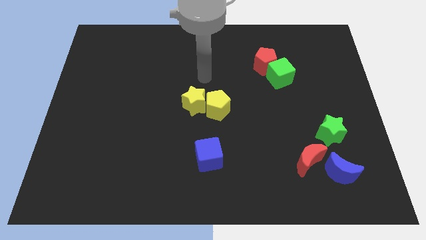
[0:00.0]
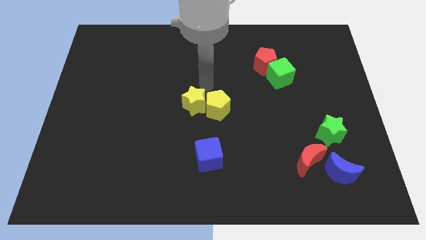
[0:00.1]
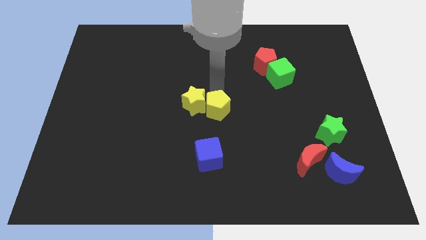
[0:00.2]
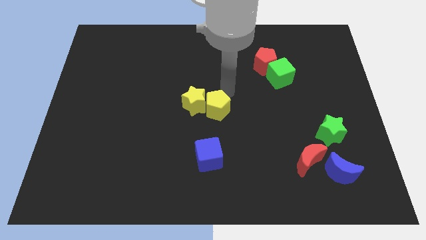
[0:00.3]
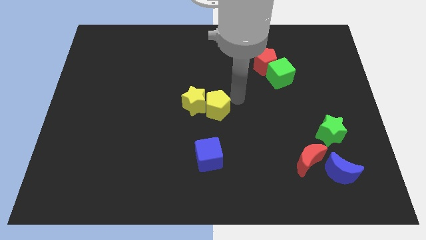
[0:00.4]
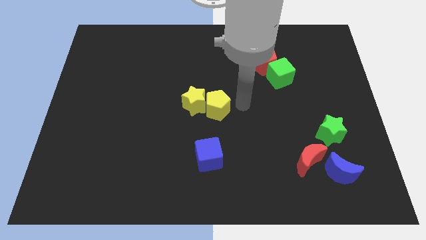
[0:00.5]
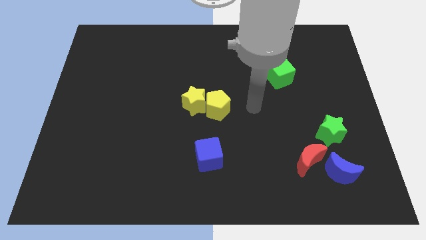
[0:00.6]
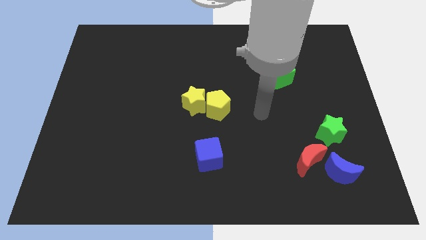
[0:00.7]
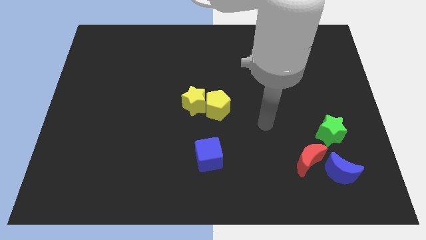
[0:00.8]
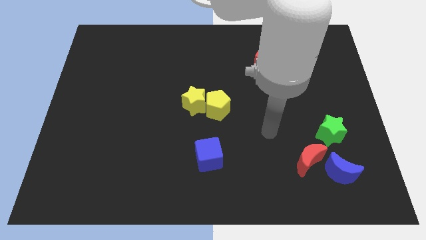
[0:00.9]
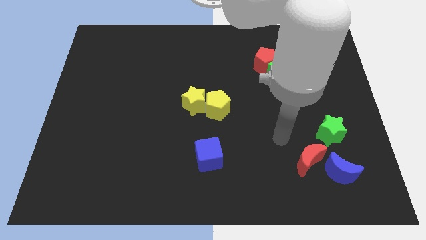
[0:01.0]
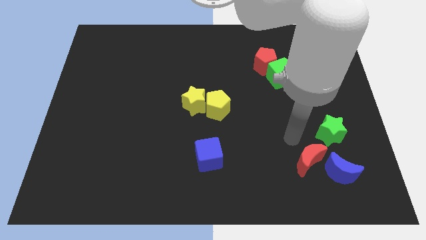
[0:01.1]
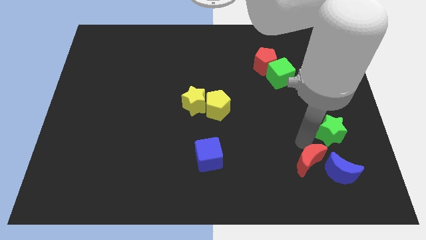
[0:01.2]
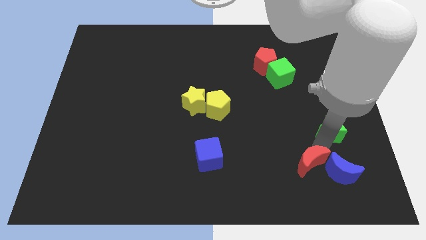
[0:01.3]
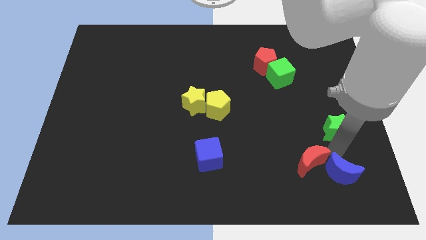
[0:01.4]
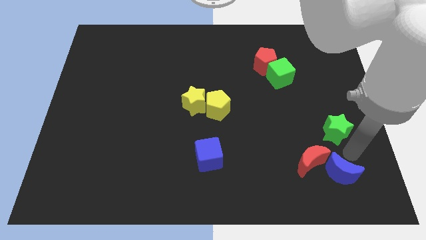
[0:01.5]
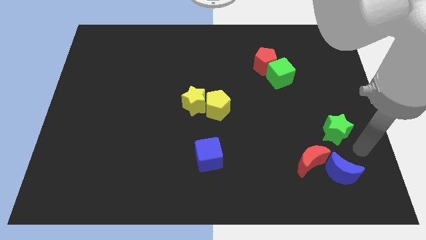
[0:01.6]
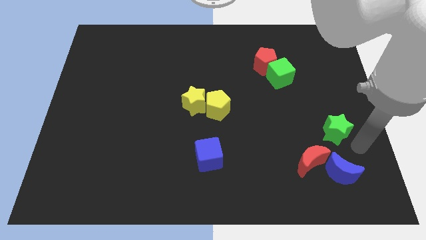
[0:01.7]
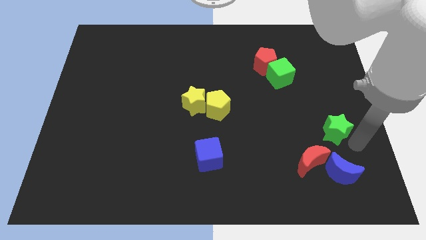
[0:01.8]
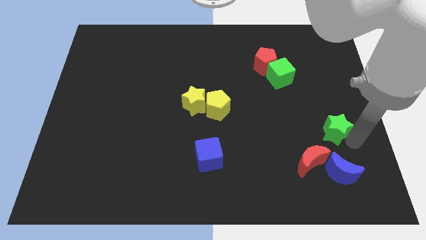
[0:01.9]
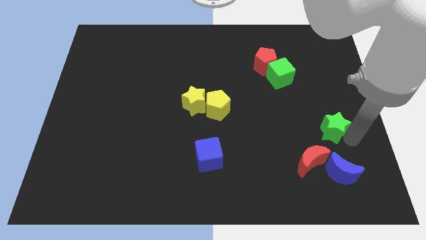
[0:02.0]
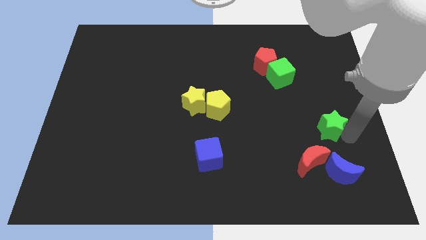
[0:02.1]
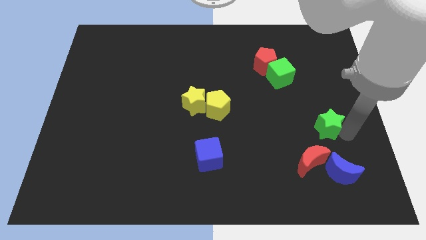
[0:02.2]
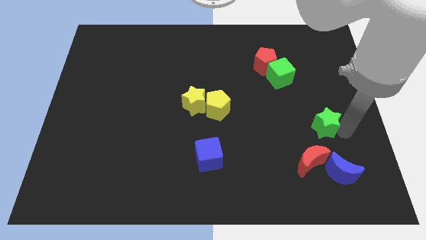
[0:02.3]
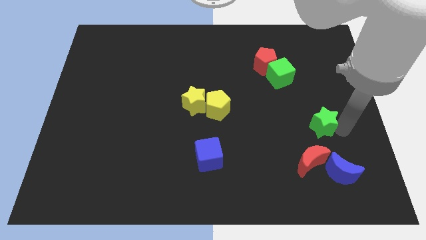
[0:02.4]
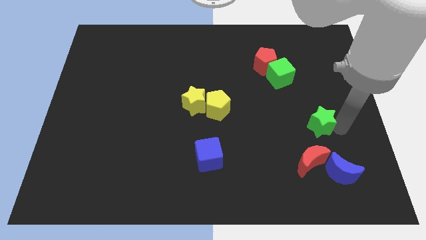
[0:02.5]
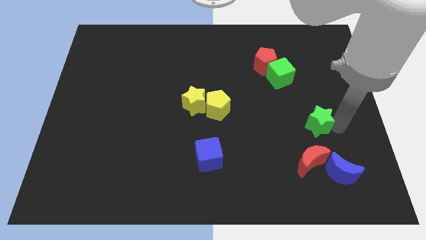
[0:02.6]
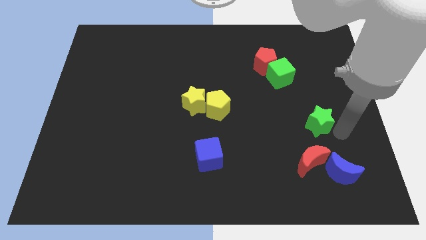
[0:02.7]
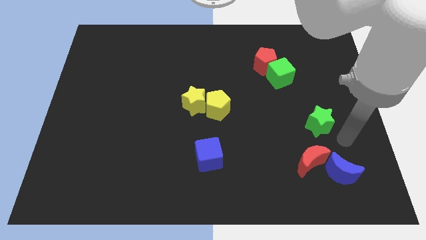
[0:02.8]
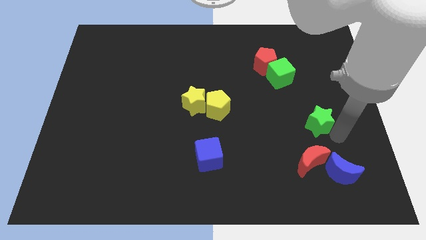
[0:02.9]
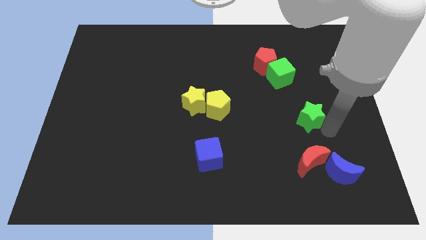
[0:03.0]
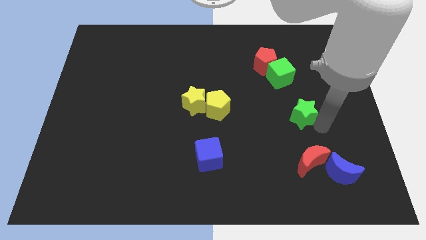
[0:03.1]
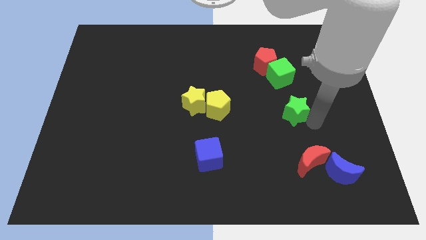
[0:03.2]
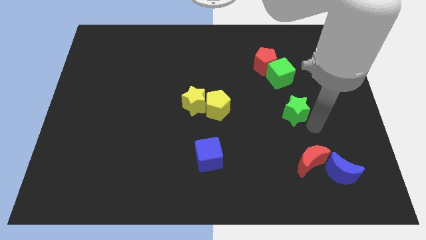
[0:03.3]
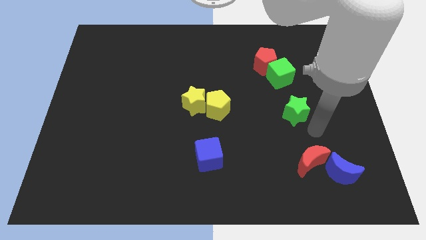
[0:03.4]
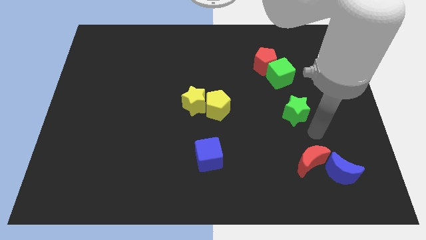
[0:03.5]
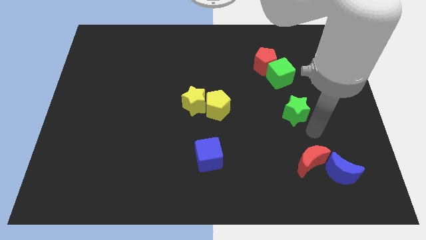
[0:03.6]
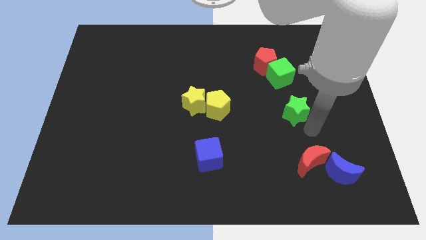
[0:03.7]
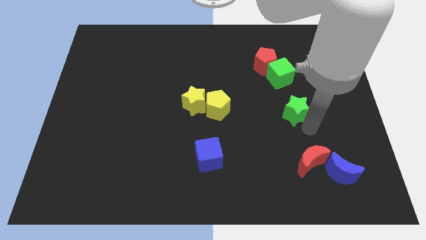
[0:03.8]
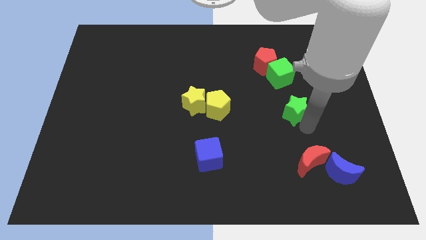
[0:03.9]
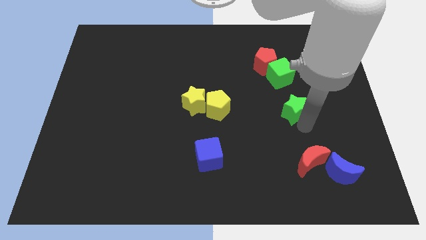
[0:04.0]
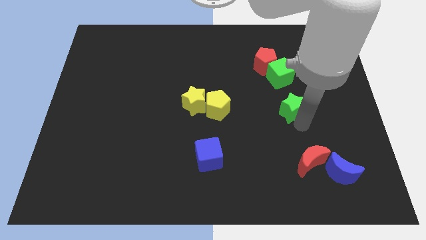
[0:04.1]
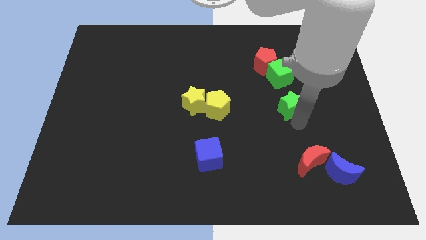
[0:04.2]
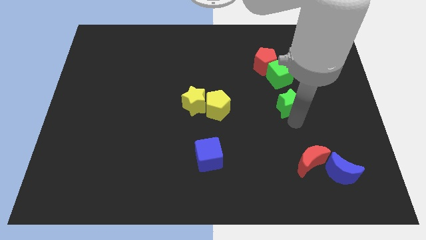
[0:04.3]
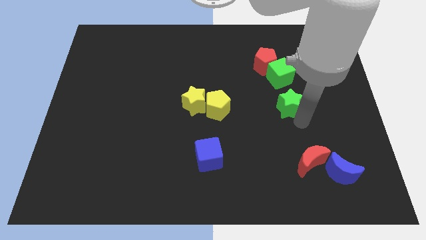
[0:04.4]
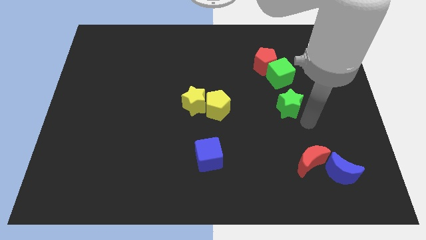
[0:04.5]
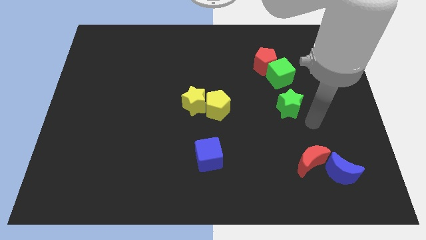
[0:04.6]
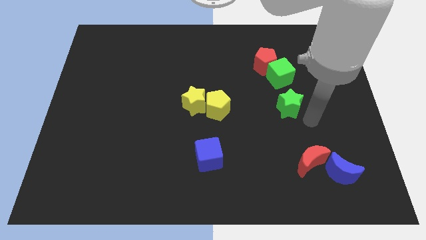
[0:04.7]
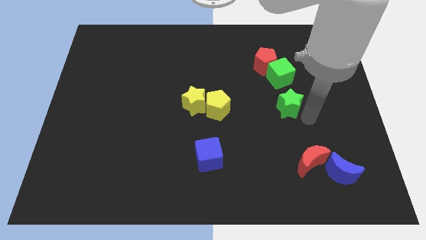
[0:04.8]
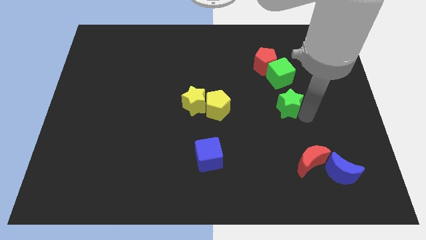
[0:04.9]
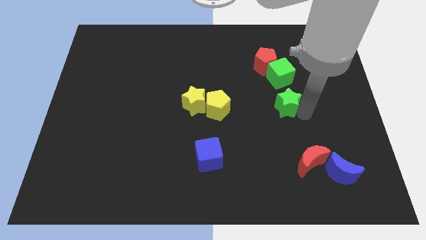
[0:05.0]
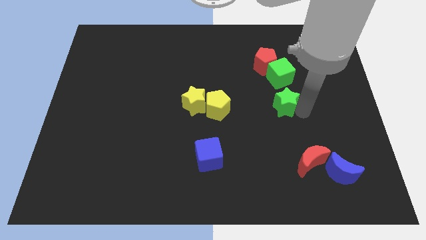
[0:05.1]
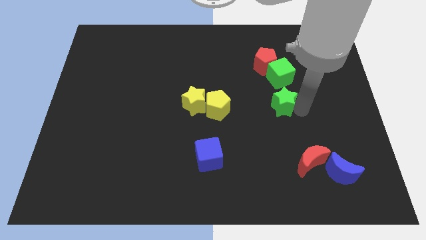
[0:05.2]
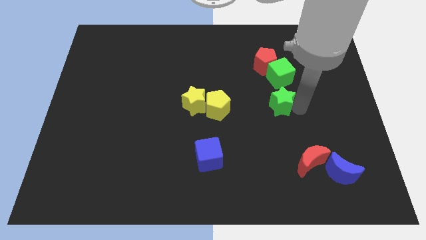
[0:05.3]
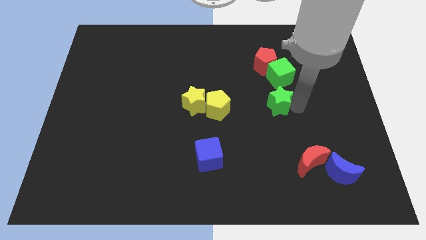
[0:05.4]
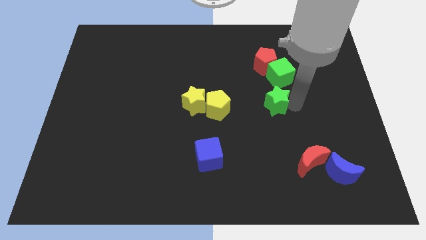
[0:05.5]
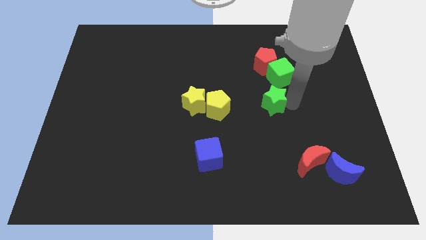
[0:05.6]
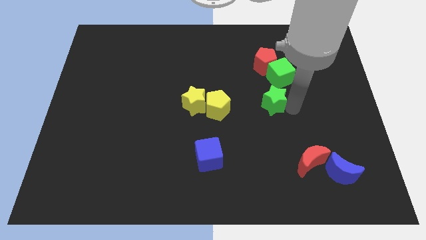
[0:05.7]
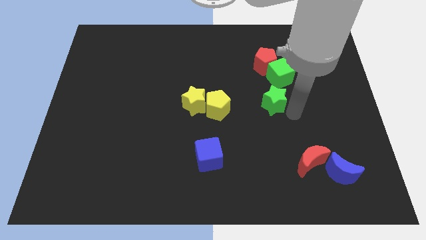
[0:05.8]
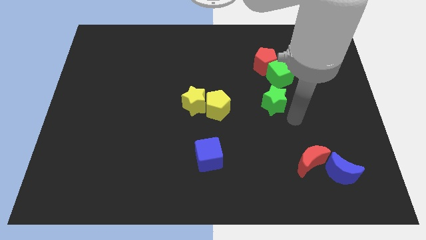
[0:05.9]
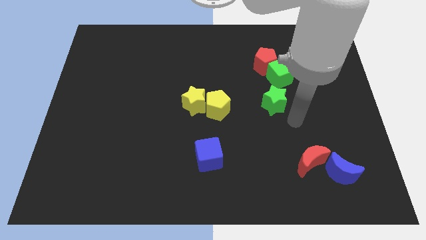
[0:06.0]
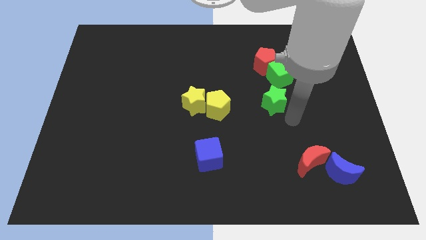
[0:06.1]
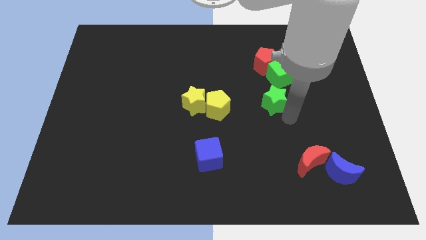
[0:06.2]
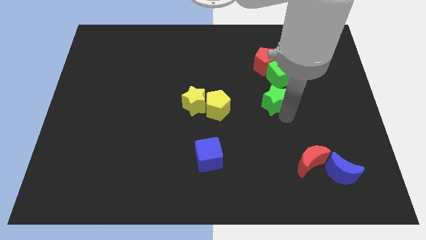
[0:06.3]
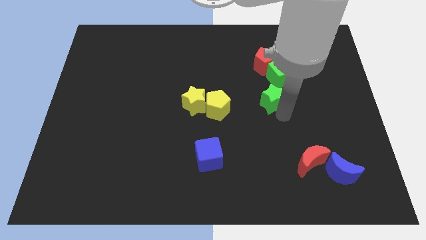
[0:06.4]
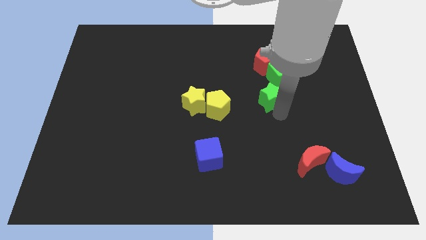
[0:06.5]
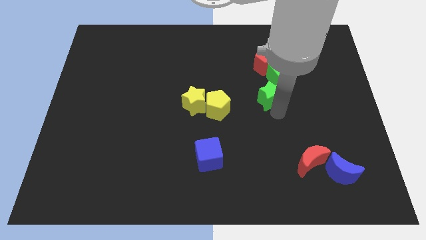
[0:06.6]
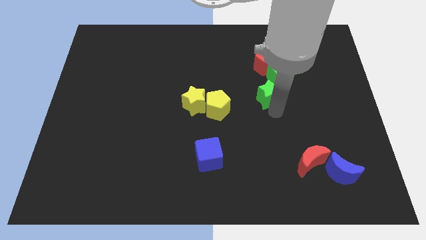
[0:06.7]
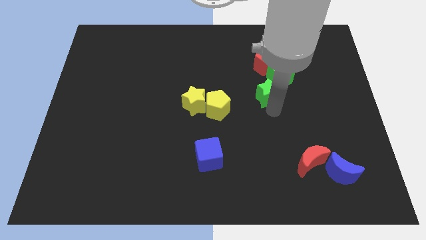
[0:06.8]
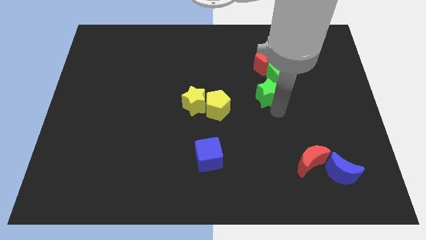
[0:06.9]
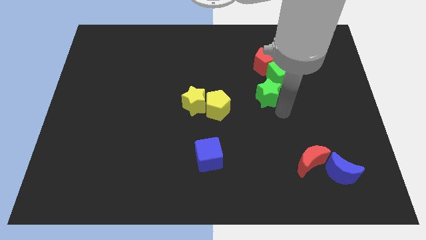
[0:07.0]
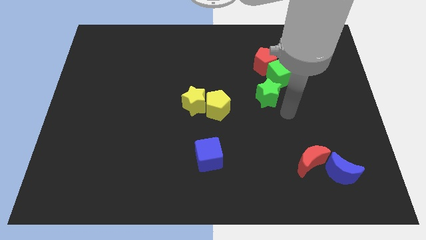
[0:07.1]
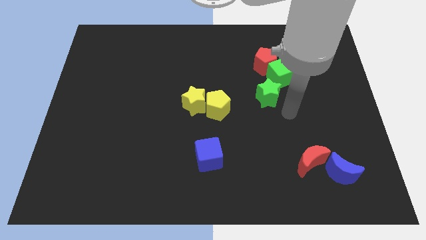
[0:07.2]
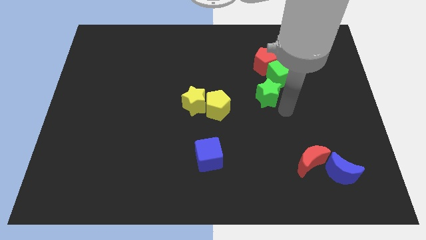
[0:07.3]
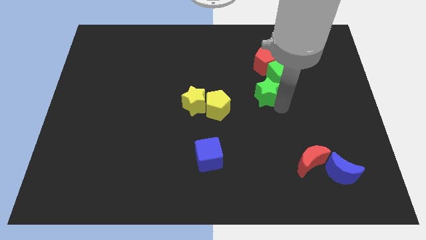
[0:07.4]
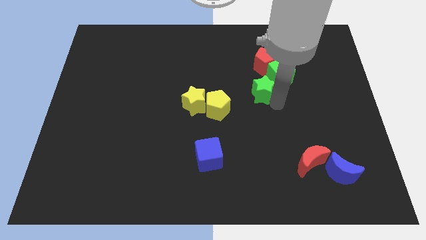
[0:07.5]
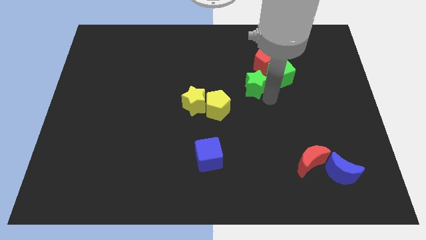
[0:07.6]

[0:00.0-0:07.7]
push the green star upwards and then left

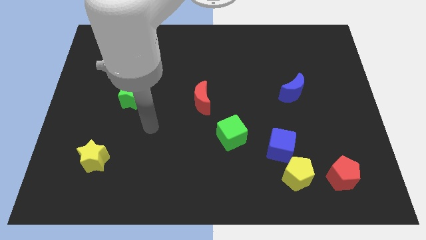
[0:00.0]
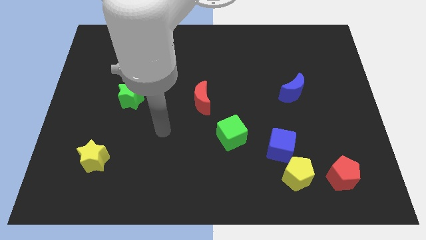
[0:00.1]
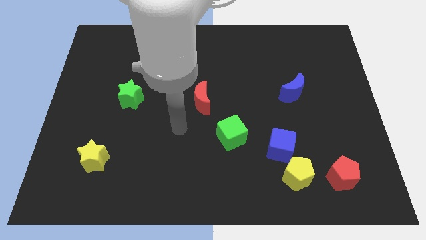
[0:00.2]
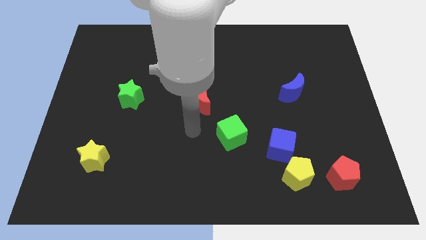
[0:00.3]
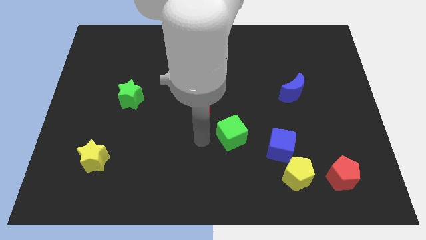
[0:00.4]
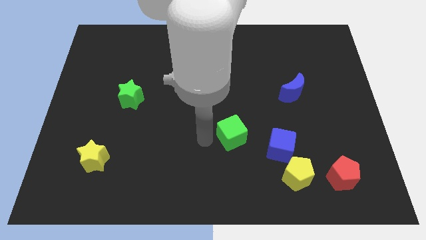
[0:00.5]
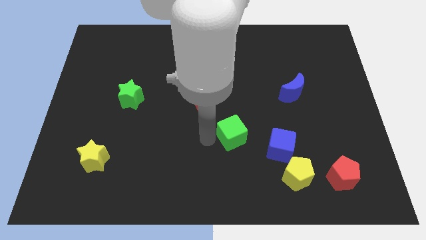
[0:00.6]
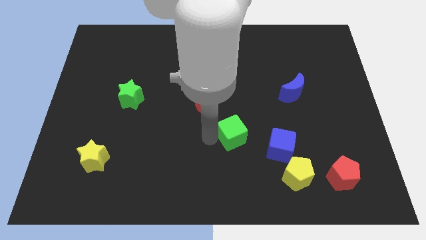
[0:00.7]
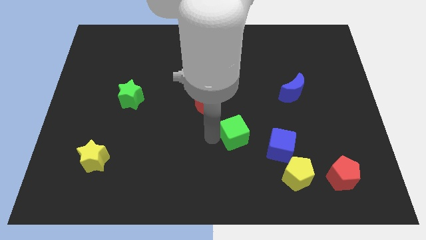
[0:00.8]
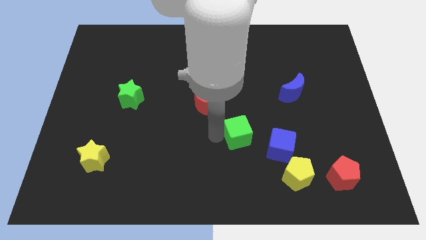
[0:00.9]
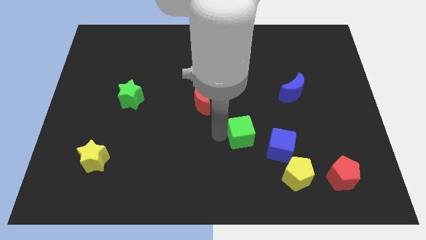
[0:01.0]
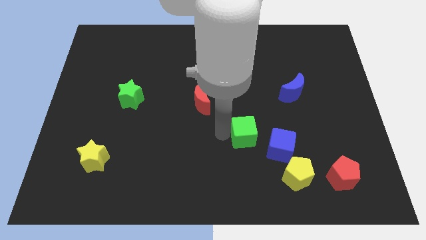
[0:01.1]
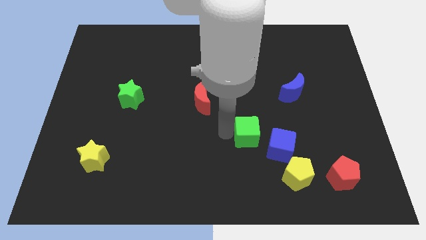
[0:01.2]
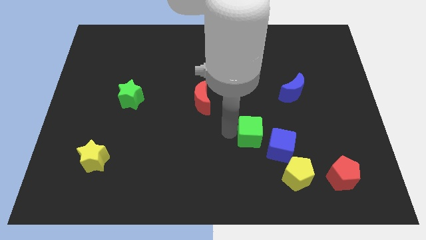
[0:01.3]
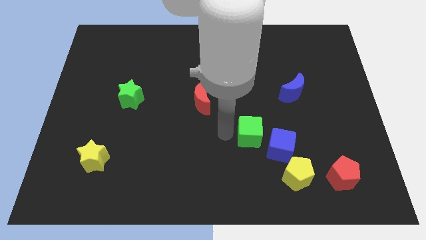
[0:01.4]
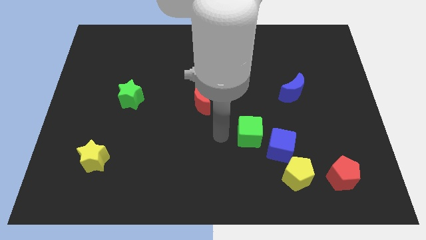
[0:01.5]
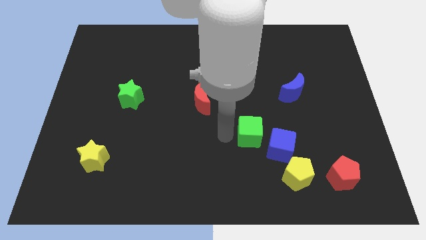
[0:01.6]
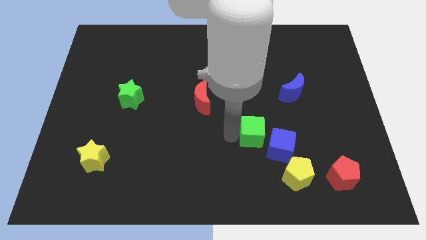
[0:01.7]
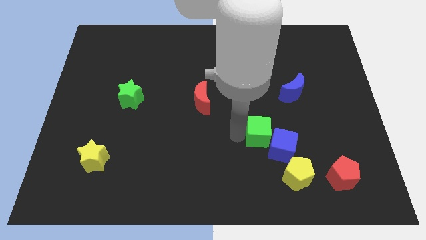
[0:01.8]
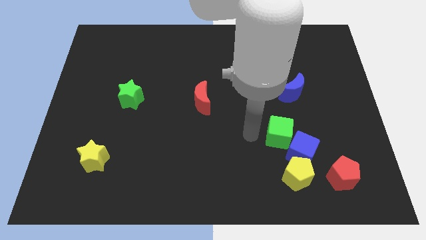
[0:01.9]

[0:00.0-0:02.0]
move the green cube right a little
